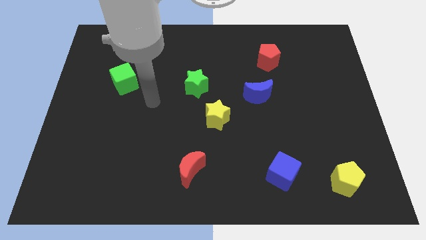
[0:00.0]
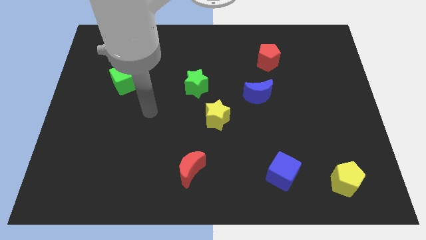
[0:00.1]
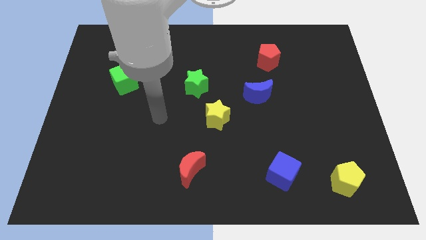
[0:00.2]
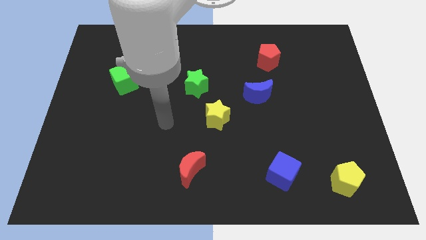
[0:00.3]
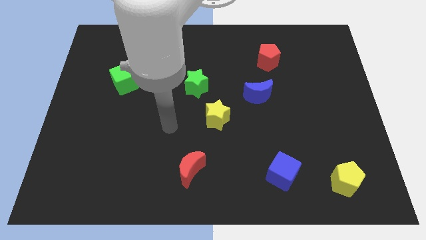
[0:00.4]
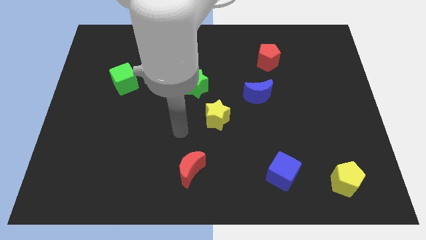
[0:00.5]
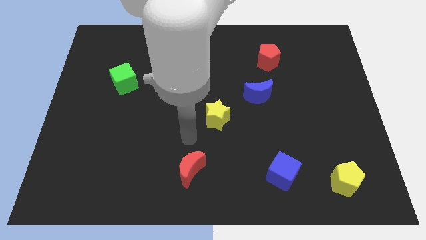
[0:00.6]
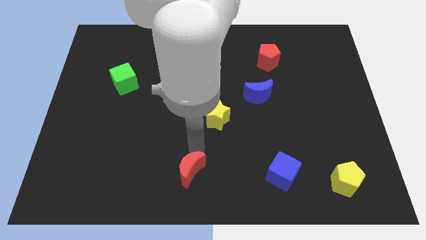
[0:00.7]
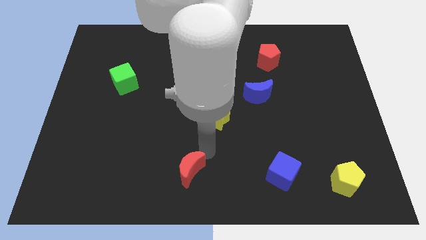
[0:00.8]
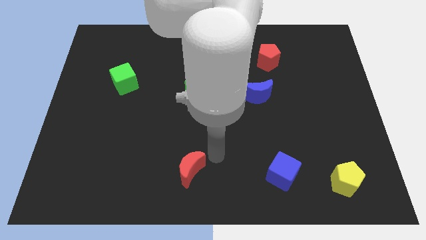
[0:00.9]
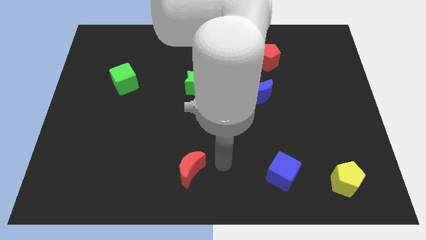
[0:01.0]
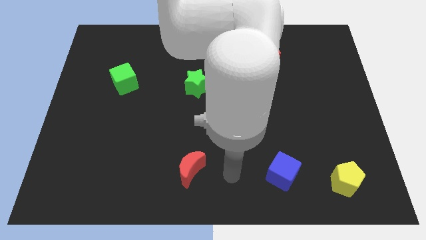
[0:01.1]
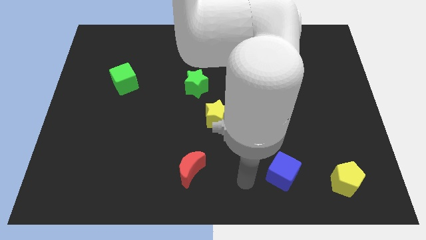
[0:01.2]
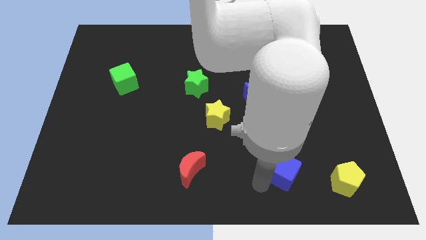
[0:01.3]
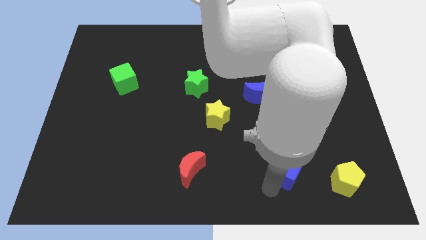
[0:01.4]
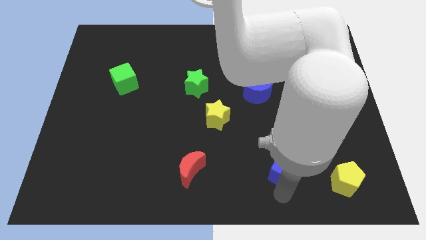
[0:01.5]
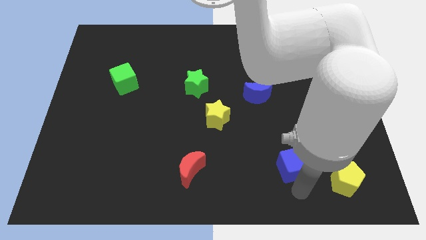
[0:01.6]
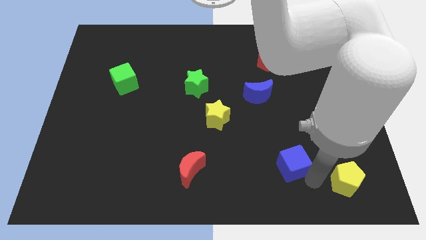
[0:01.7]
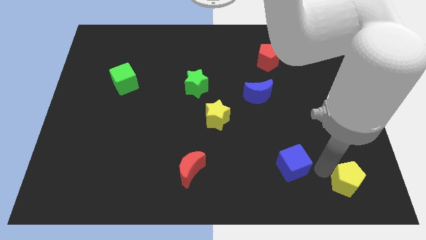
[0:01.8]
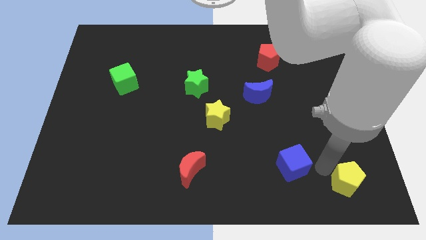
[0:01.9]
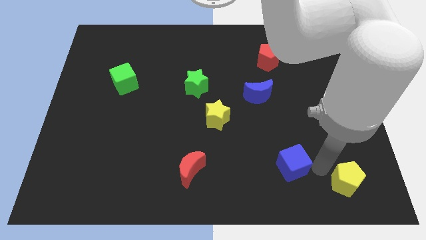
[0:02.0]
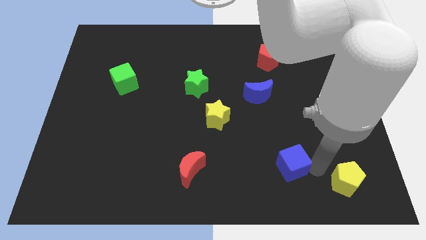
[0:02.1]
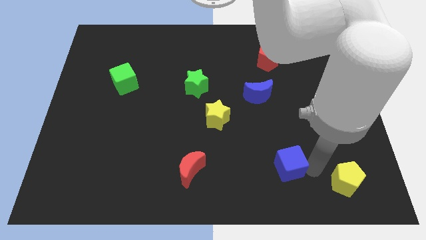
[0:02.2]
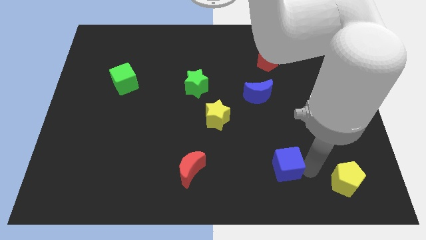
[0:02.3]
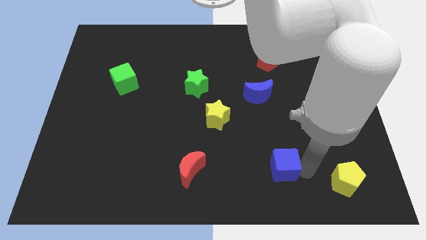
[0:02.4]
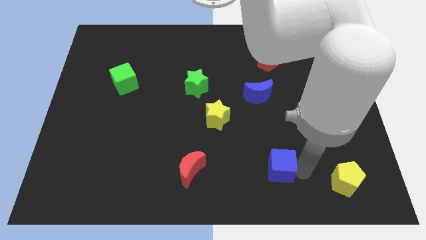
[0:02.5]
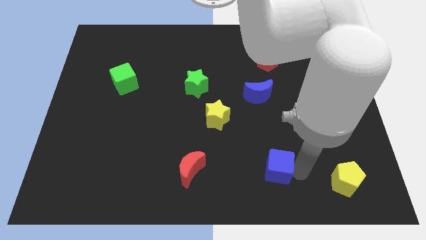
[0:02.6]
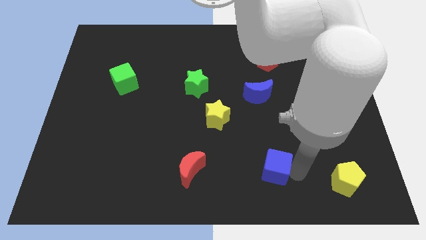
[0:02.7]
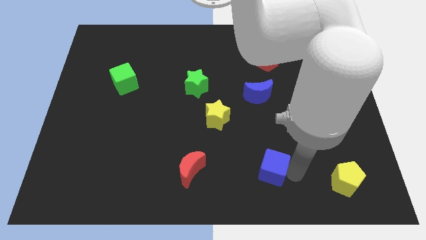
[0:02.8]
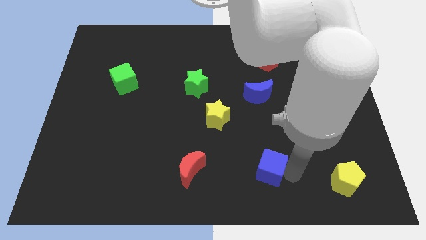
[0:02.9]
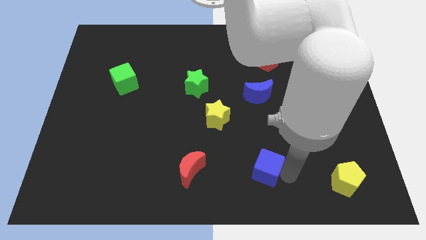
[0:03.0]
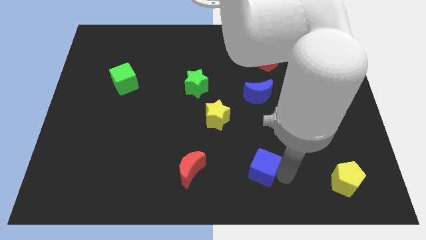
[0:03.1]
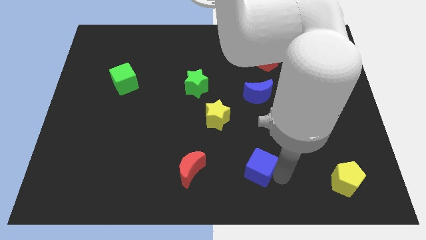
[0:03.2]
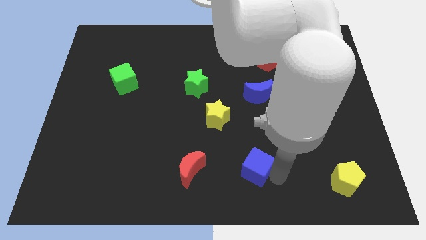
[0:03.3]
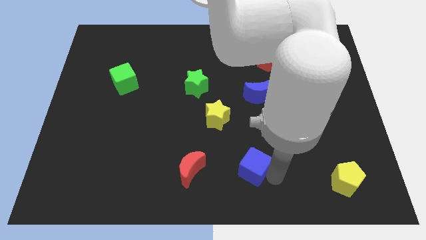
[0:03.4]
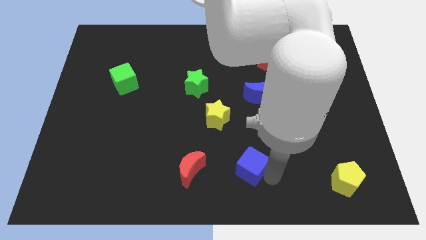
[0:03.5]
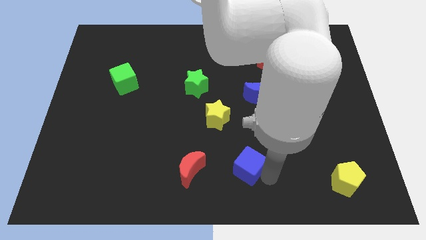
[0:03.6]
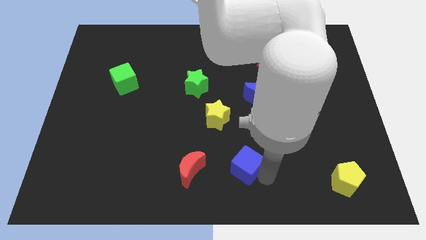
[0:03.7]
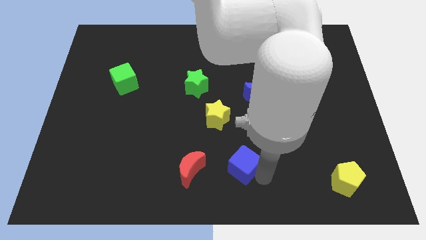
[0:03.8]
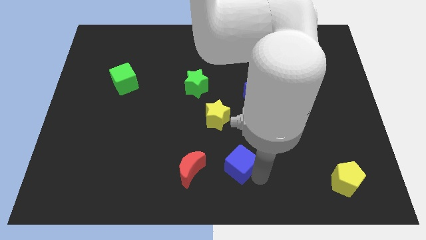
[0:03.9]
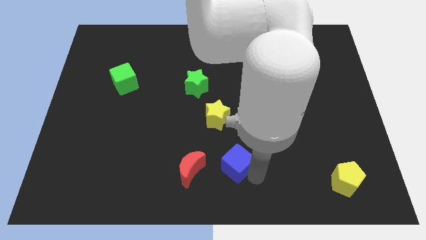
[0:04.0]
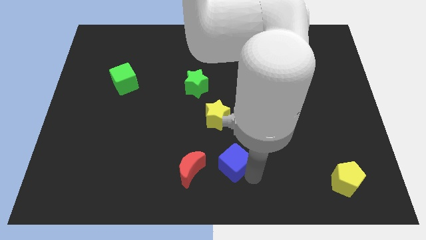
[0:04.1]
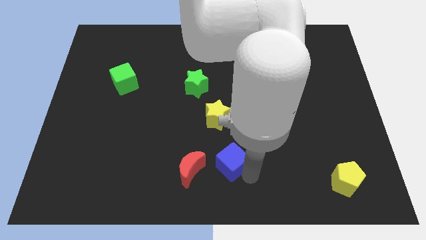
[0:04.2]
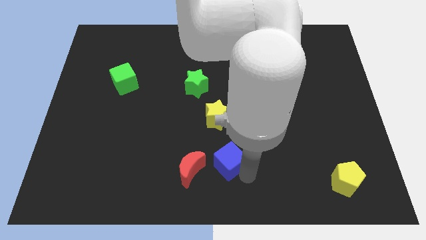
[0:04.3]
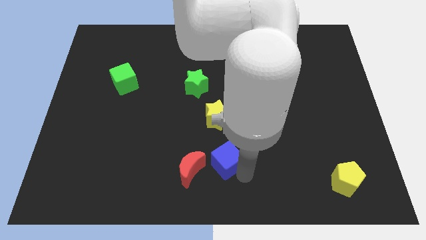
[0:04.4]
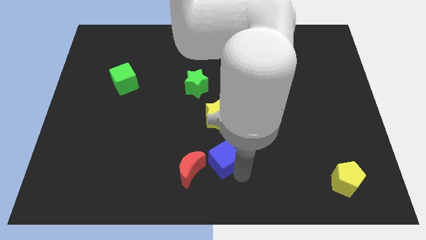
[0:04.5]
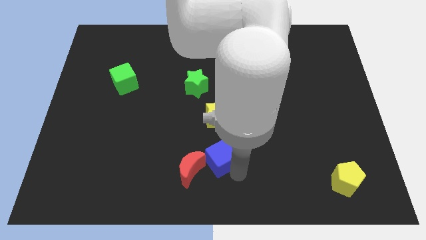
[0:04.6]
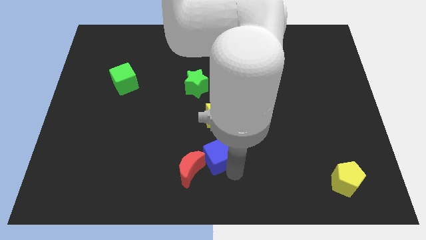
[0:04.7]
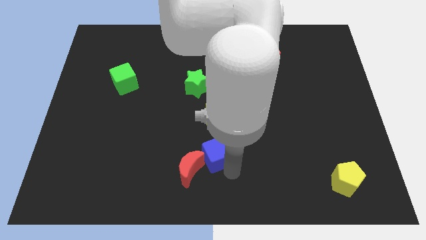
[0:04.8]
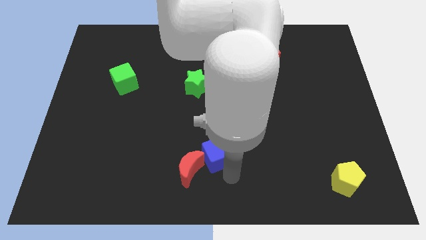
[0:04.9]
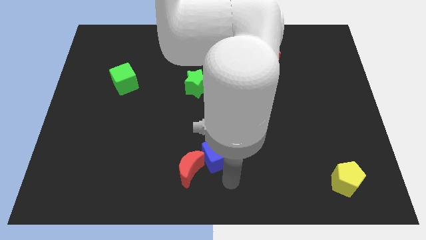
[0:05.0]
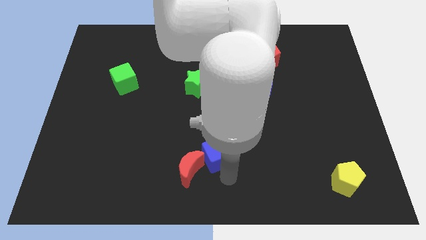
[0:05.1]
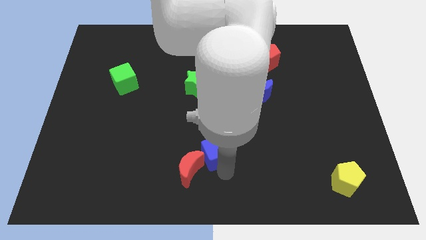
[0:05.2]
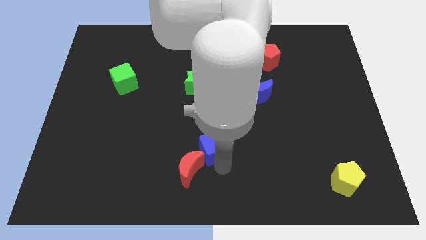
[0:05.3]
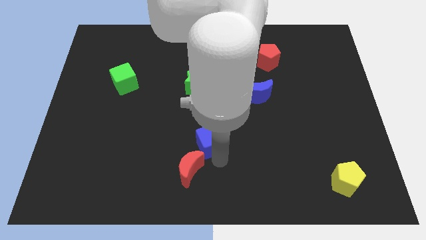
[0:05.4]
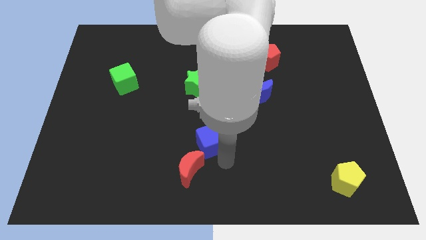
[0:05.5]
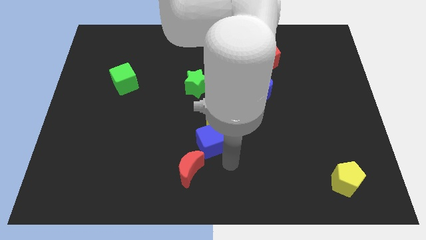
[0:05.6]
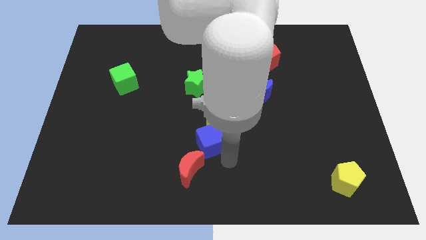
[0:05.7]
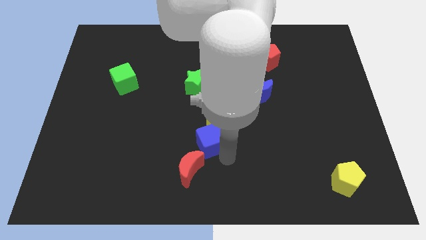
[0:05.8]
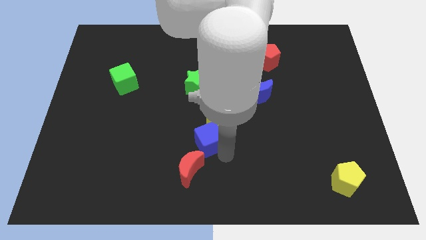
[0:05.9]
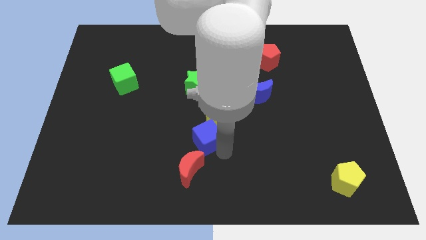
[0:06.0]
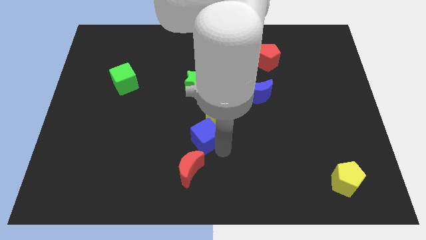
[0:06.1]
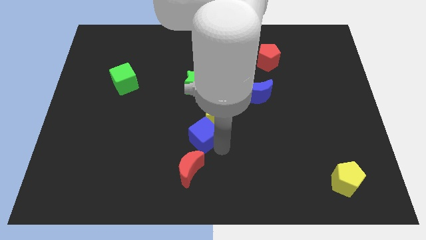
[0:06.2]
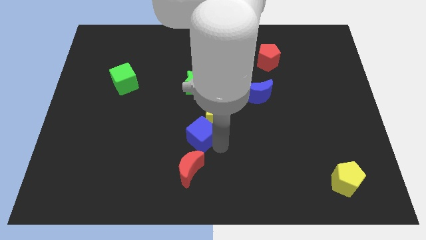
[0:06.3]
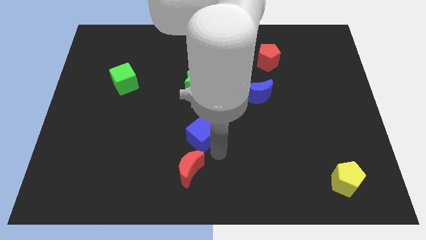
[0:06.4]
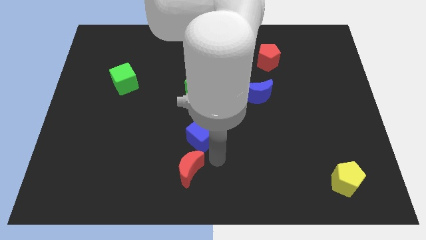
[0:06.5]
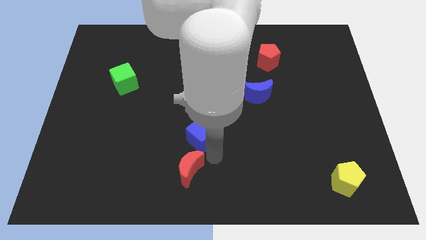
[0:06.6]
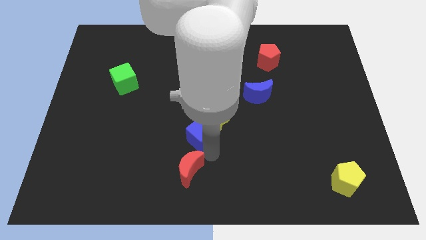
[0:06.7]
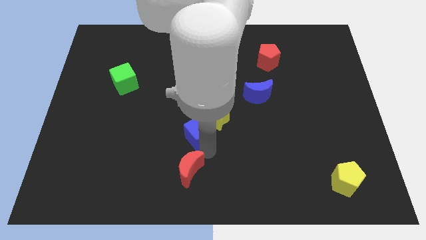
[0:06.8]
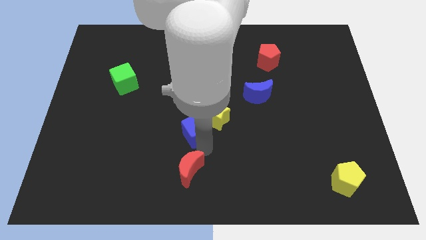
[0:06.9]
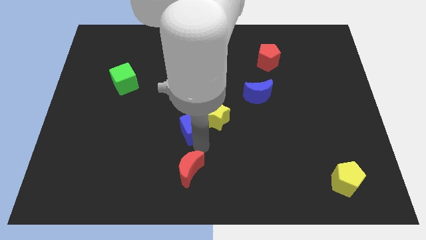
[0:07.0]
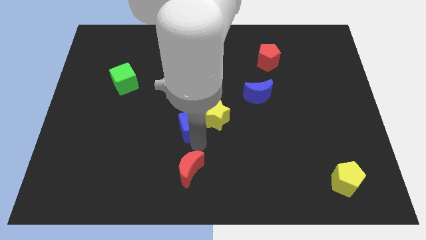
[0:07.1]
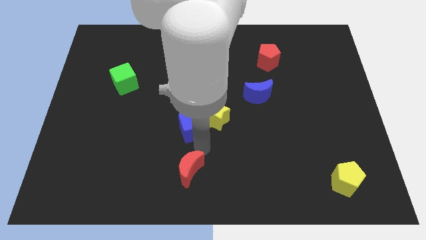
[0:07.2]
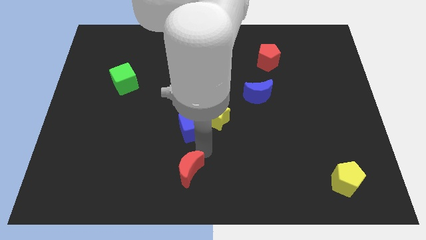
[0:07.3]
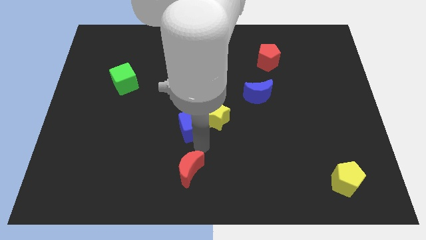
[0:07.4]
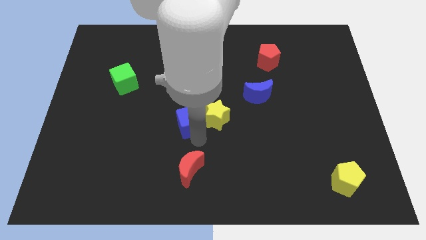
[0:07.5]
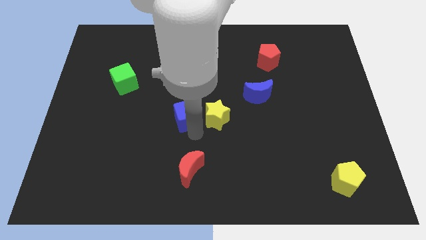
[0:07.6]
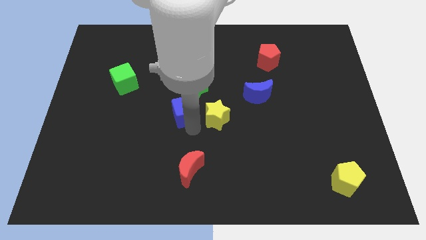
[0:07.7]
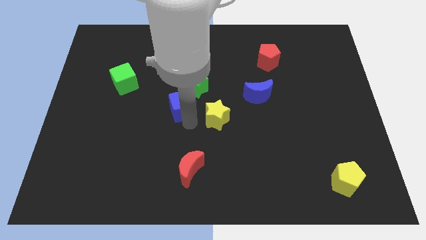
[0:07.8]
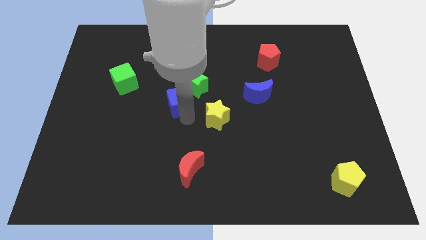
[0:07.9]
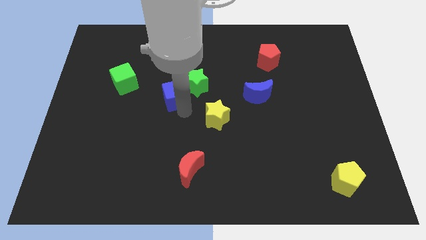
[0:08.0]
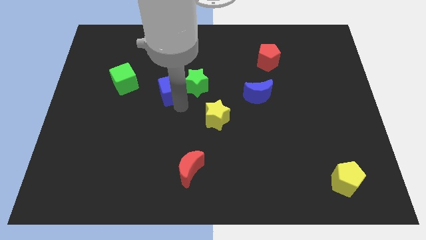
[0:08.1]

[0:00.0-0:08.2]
move the blue cube right of the green cube

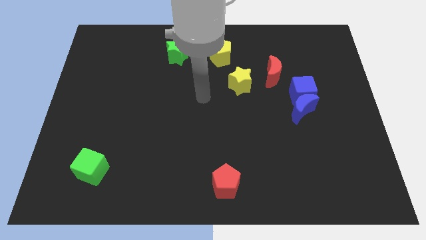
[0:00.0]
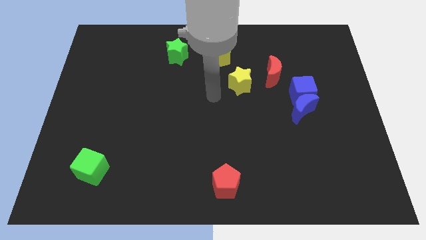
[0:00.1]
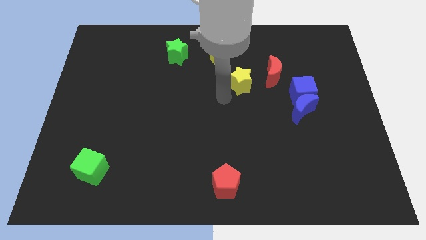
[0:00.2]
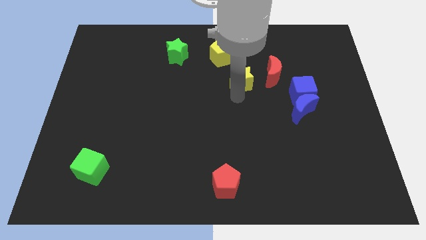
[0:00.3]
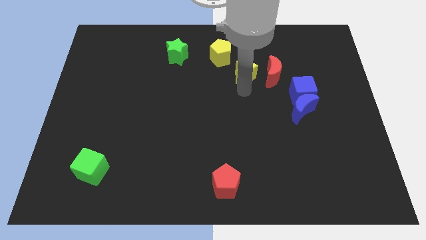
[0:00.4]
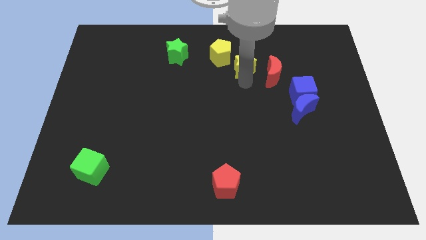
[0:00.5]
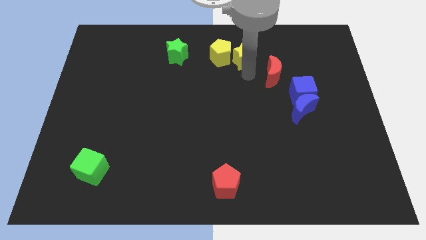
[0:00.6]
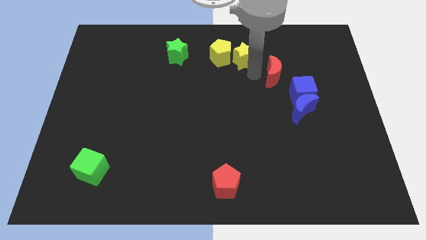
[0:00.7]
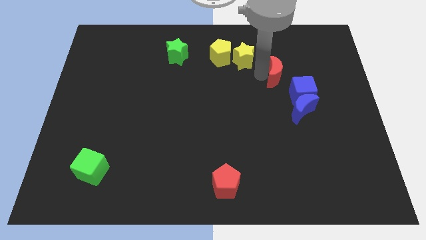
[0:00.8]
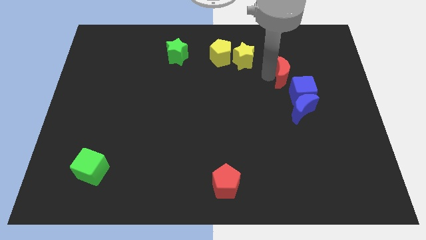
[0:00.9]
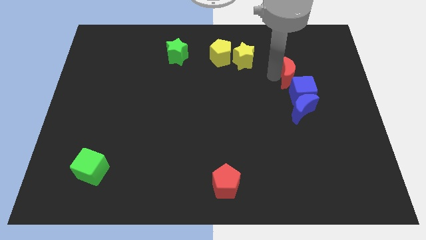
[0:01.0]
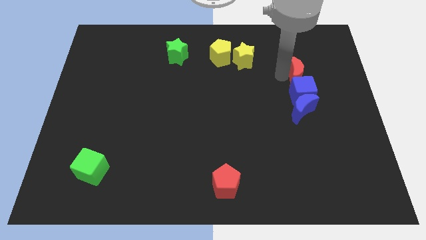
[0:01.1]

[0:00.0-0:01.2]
put the red moon diagonally up and to the right of the blue cube
